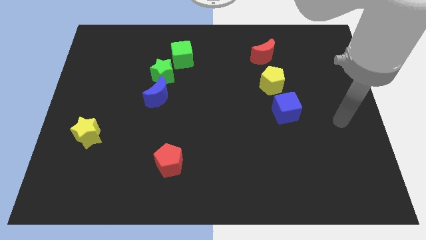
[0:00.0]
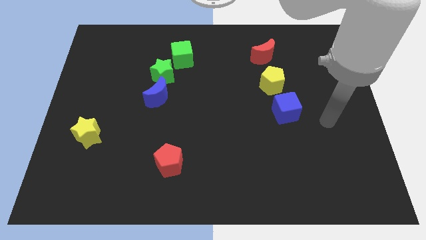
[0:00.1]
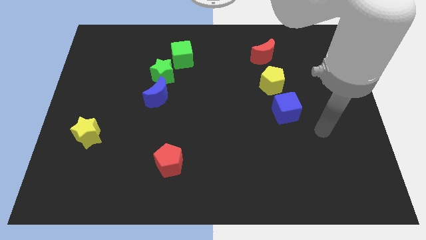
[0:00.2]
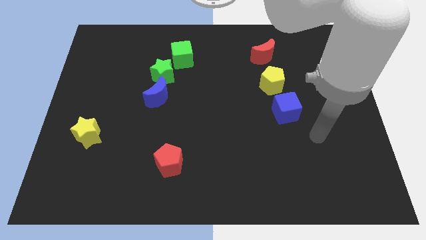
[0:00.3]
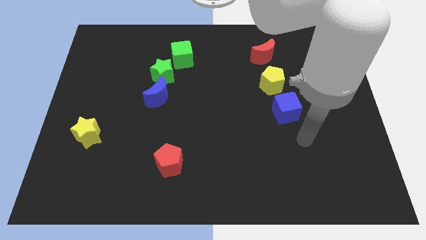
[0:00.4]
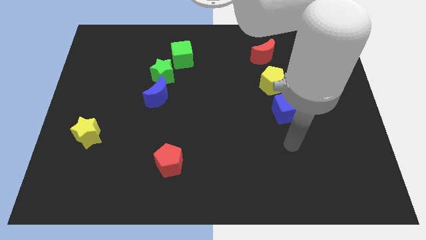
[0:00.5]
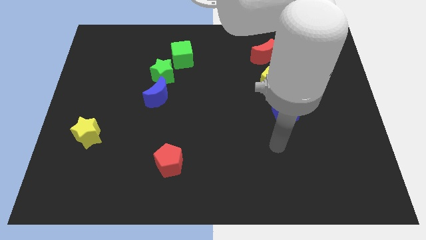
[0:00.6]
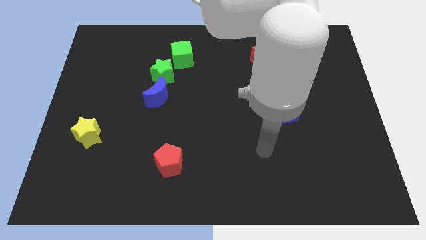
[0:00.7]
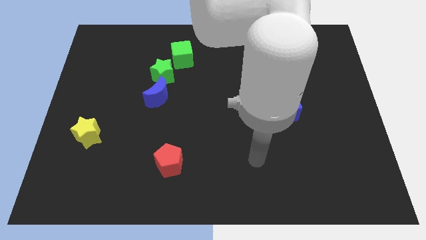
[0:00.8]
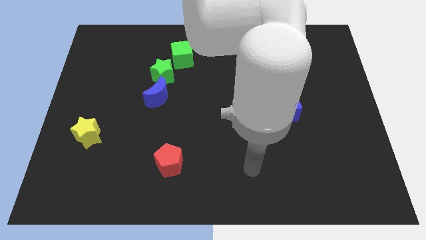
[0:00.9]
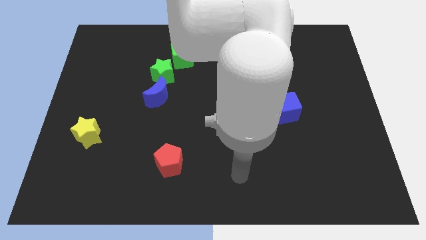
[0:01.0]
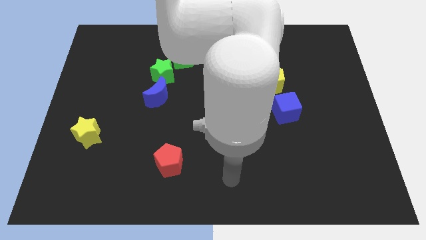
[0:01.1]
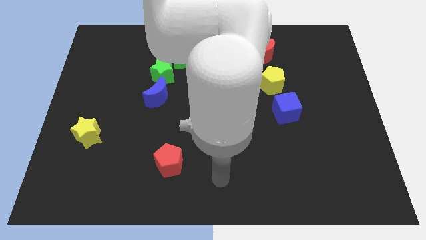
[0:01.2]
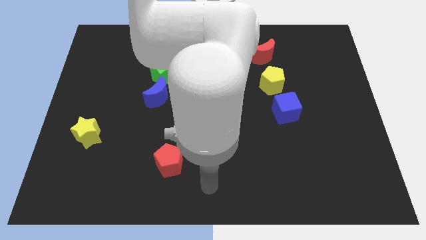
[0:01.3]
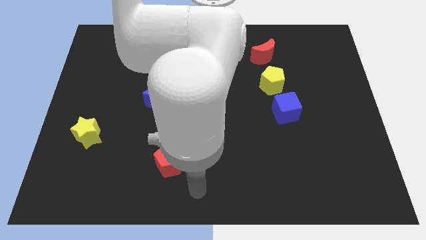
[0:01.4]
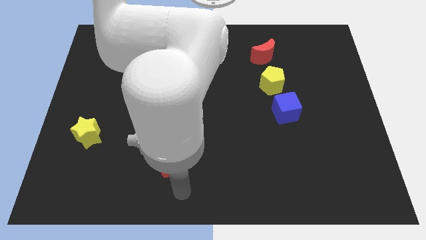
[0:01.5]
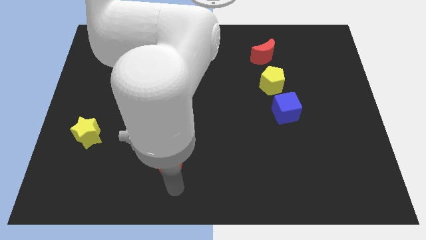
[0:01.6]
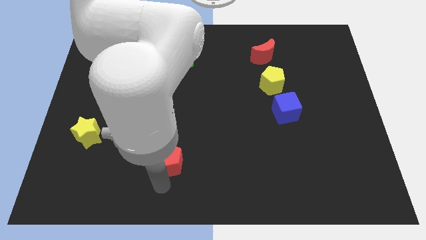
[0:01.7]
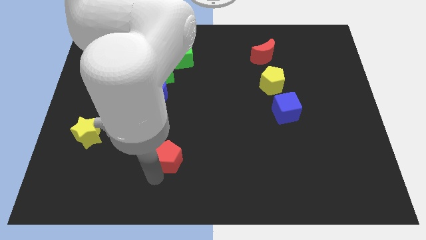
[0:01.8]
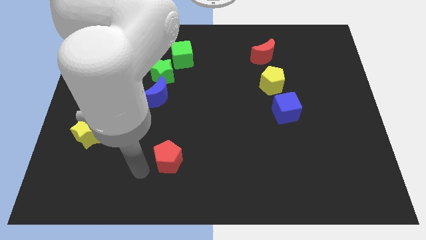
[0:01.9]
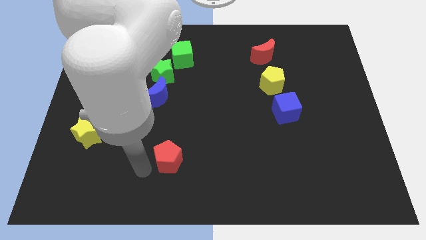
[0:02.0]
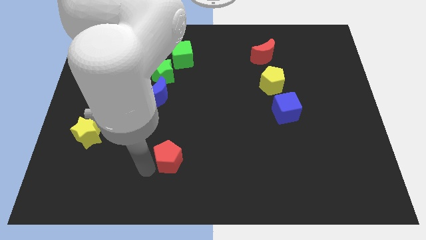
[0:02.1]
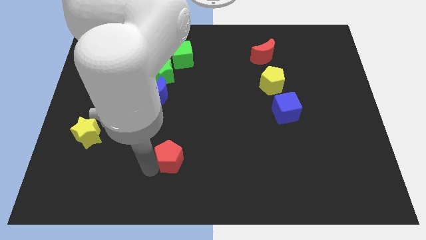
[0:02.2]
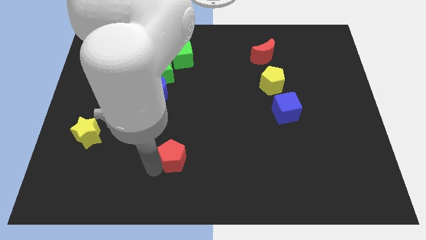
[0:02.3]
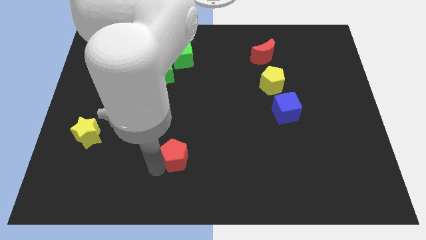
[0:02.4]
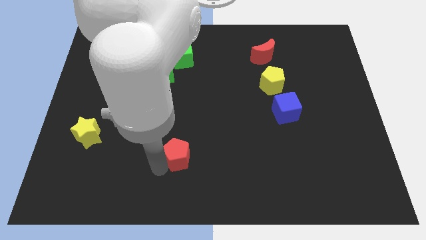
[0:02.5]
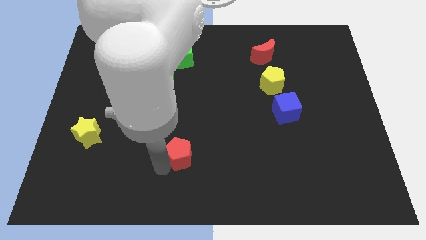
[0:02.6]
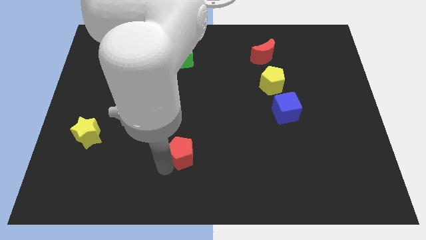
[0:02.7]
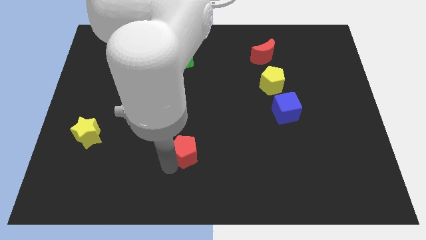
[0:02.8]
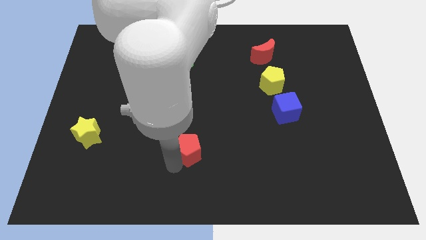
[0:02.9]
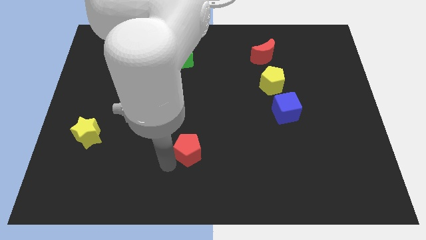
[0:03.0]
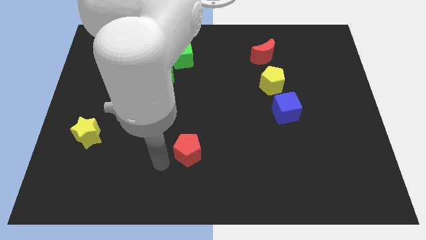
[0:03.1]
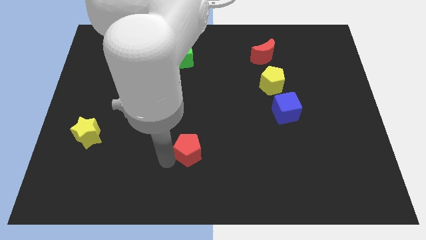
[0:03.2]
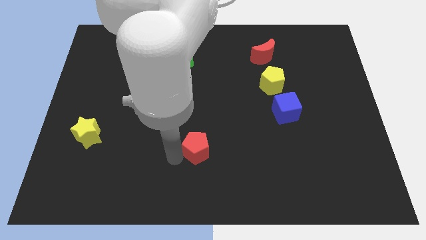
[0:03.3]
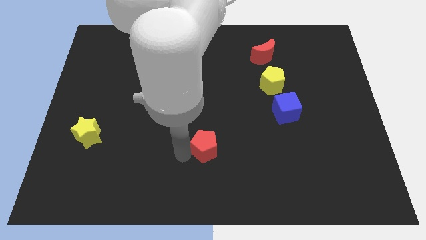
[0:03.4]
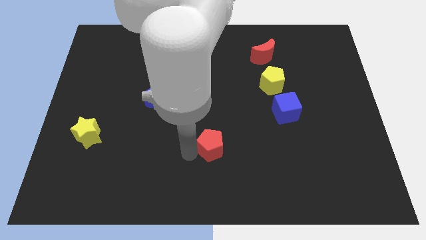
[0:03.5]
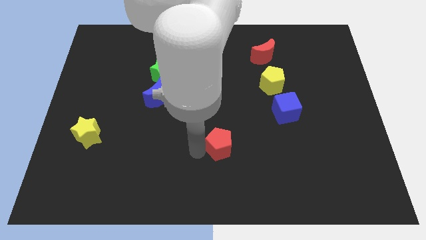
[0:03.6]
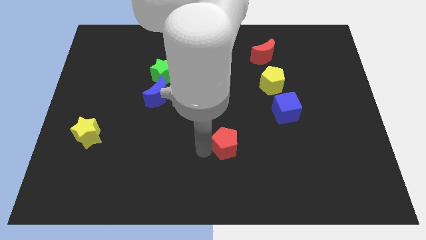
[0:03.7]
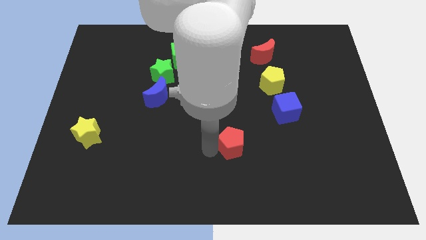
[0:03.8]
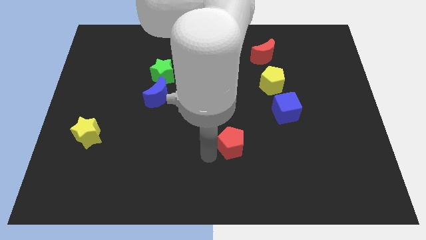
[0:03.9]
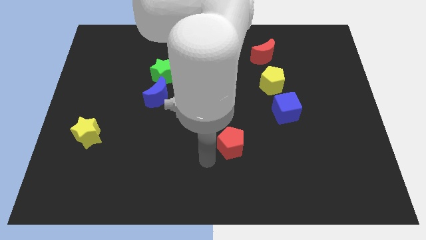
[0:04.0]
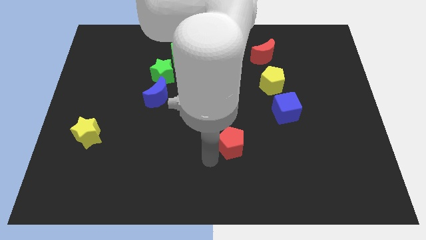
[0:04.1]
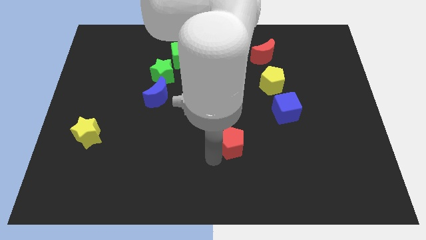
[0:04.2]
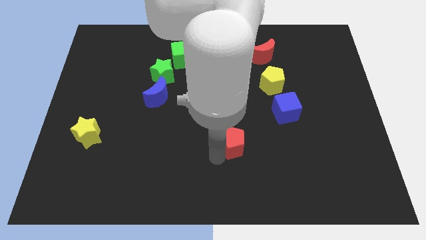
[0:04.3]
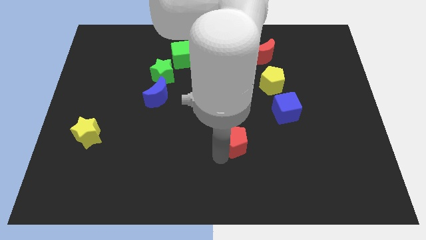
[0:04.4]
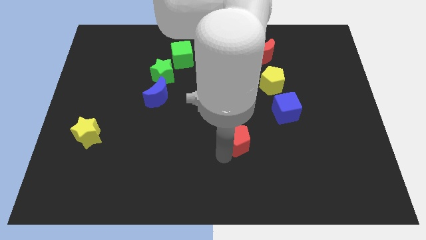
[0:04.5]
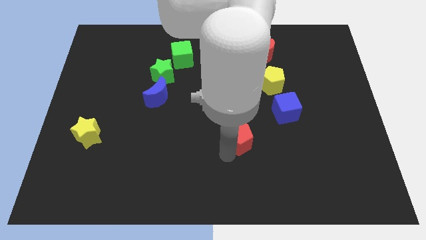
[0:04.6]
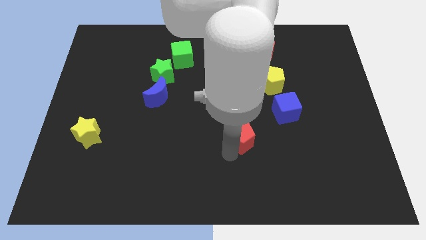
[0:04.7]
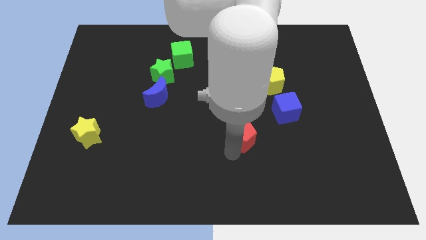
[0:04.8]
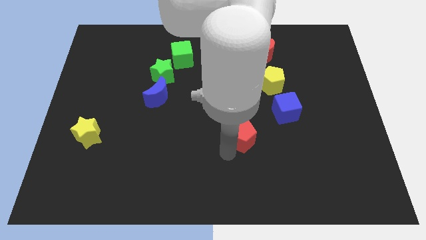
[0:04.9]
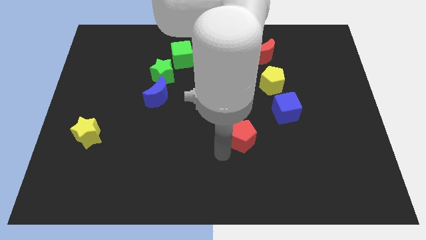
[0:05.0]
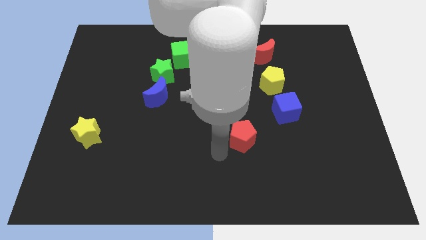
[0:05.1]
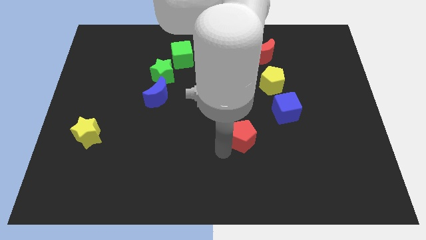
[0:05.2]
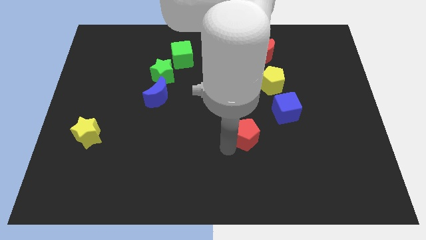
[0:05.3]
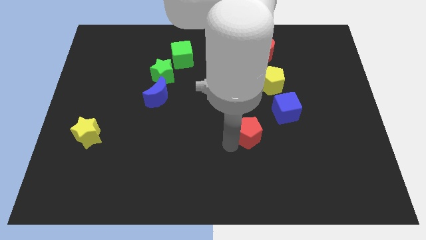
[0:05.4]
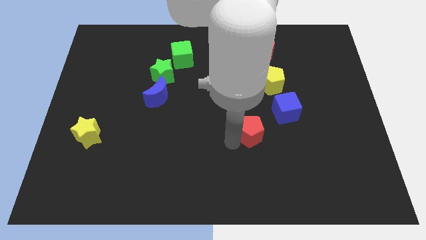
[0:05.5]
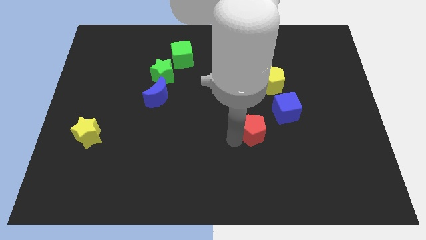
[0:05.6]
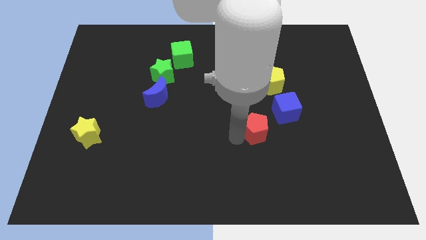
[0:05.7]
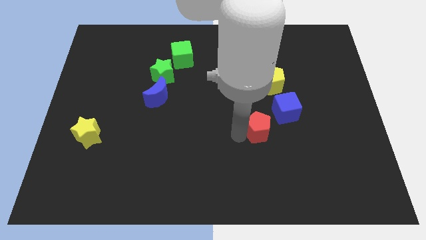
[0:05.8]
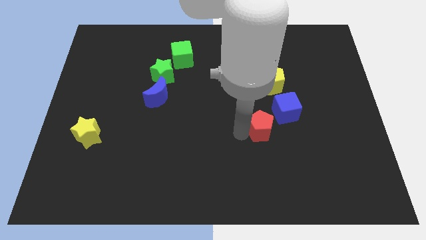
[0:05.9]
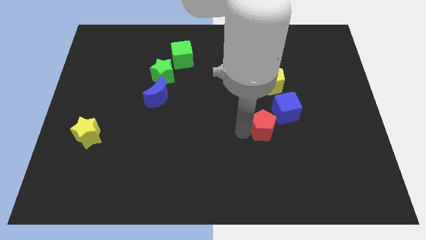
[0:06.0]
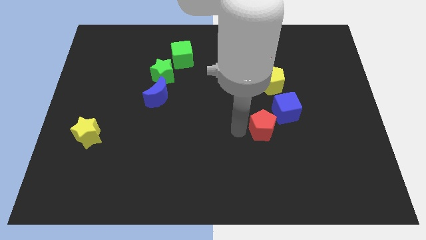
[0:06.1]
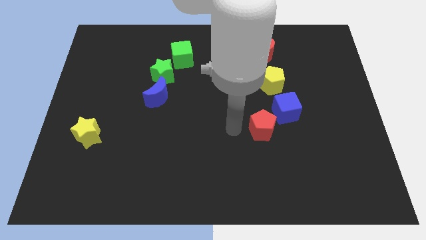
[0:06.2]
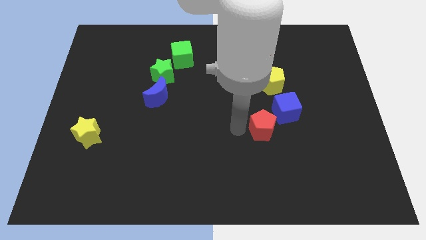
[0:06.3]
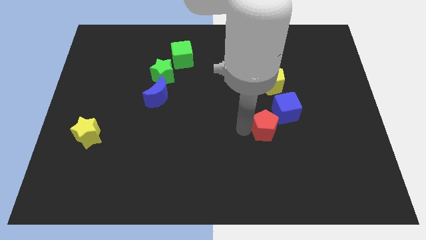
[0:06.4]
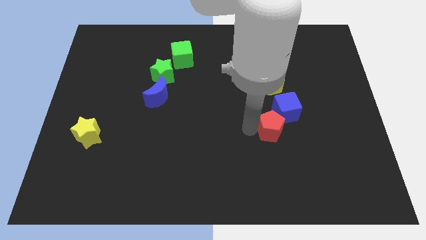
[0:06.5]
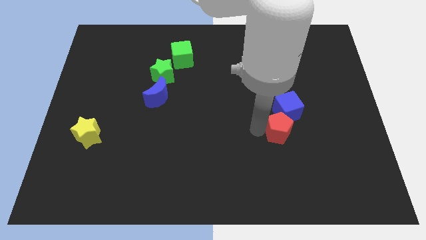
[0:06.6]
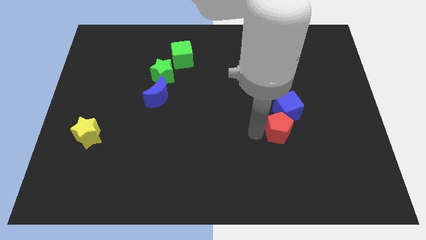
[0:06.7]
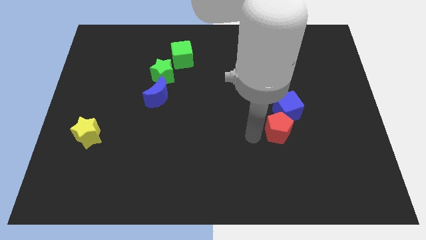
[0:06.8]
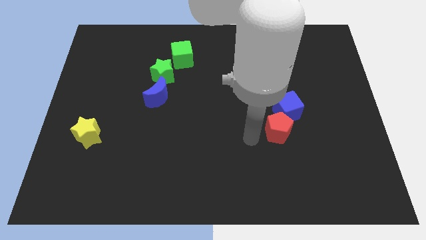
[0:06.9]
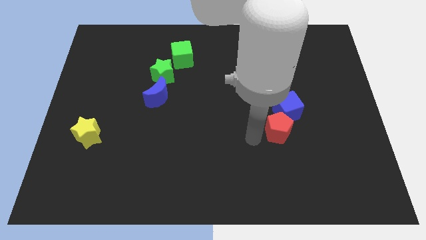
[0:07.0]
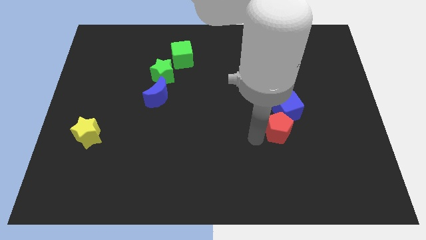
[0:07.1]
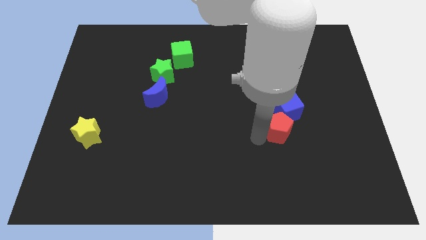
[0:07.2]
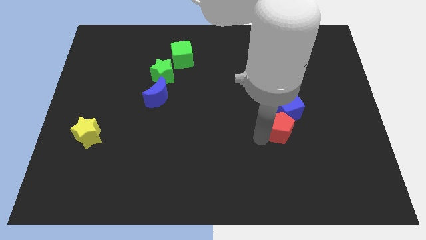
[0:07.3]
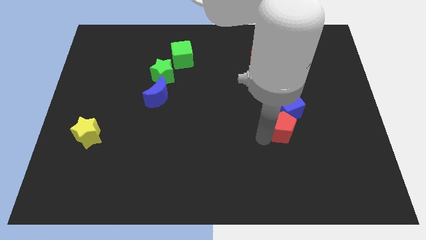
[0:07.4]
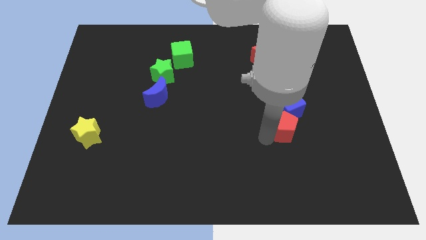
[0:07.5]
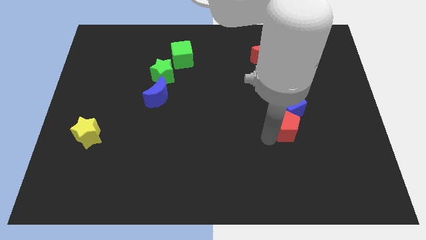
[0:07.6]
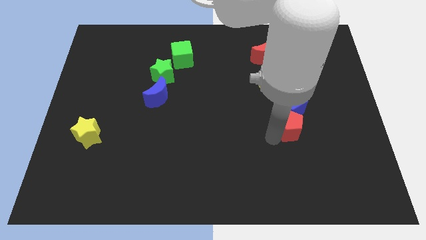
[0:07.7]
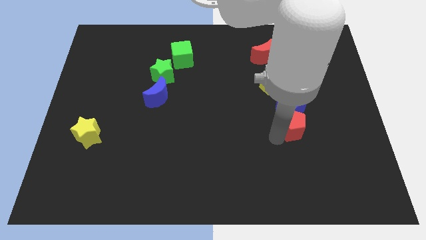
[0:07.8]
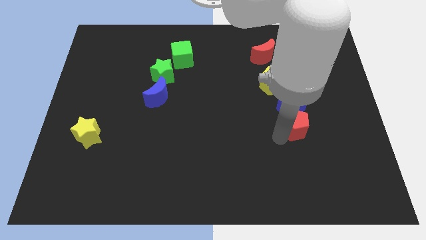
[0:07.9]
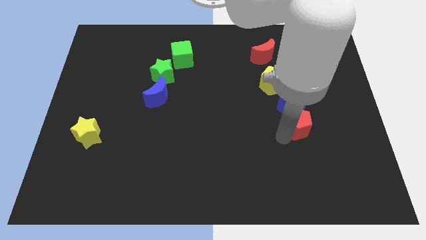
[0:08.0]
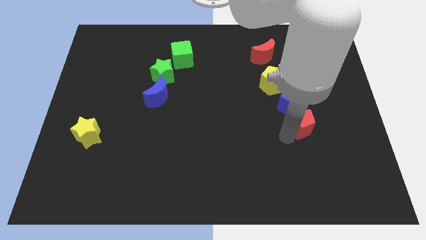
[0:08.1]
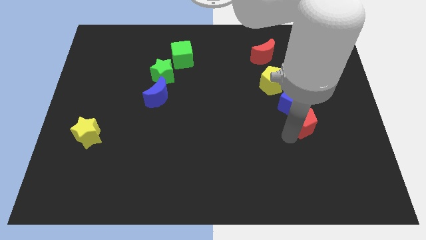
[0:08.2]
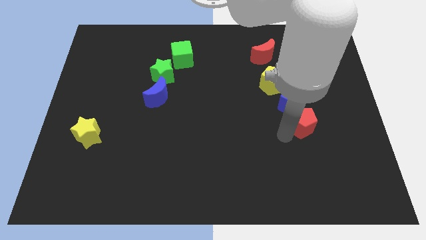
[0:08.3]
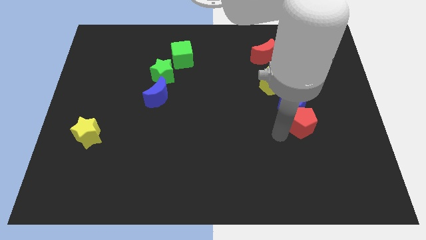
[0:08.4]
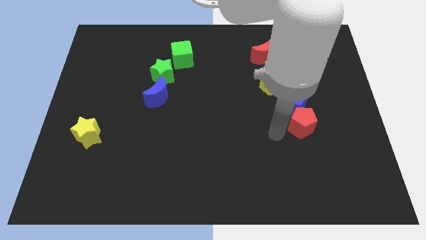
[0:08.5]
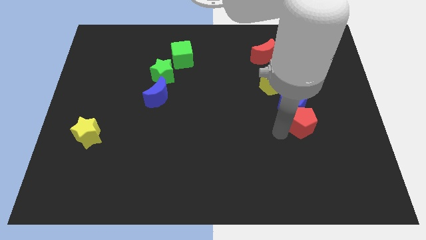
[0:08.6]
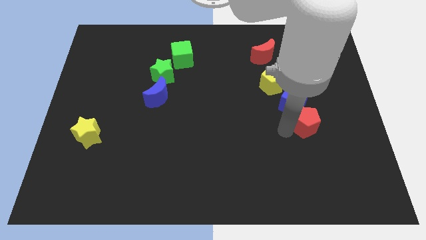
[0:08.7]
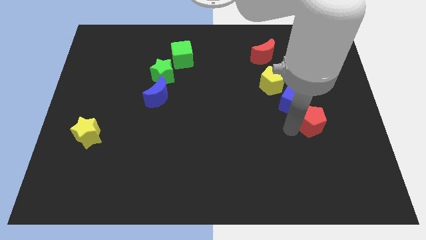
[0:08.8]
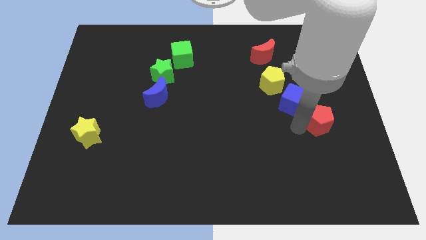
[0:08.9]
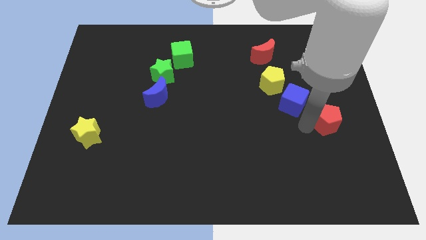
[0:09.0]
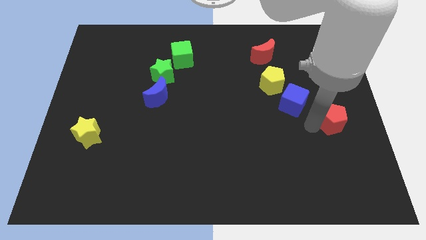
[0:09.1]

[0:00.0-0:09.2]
move the red pentagon to the center right
